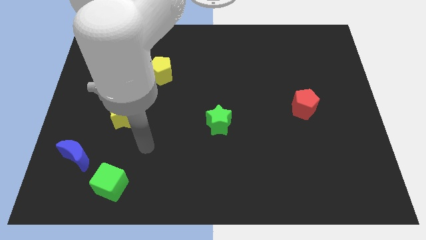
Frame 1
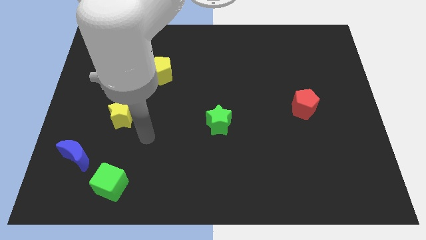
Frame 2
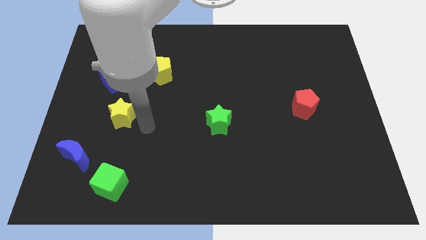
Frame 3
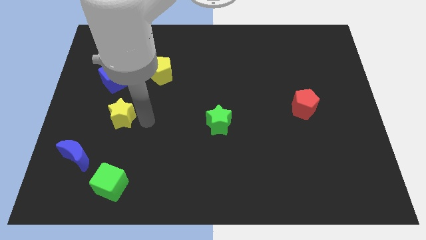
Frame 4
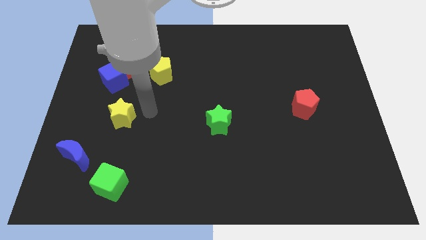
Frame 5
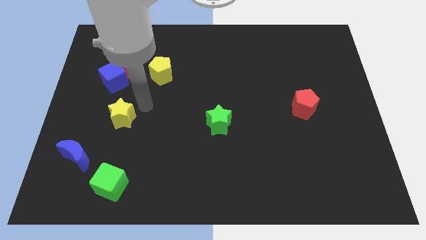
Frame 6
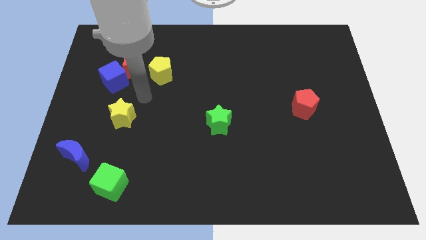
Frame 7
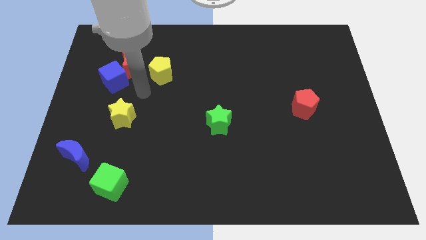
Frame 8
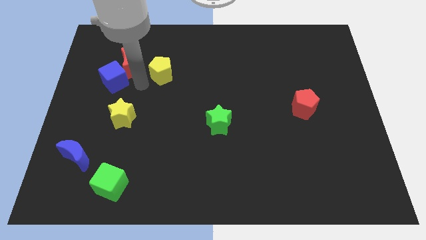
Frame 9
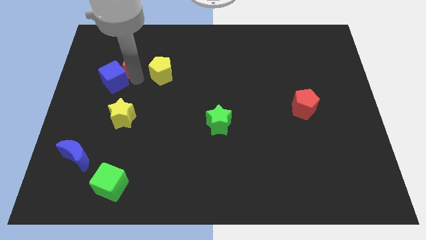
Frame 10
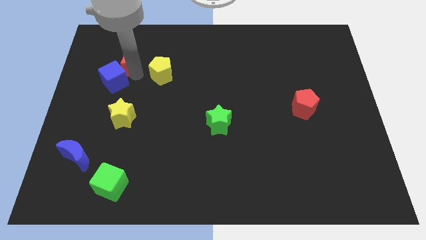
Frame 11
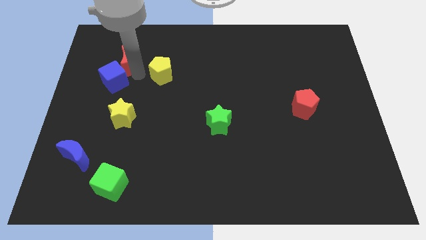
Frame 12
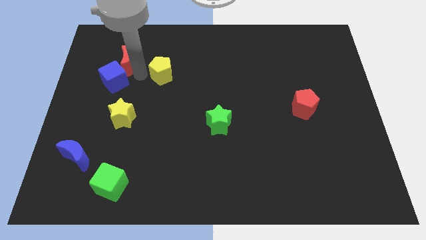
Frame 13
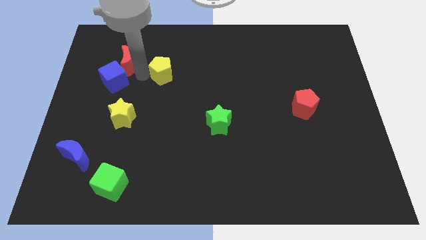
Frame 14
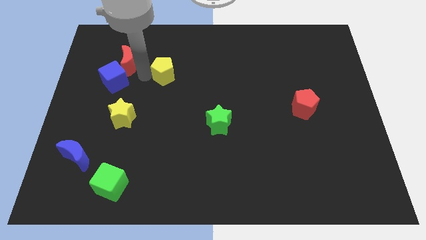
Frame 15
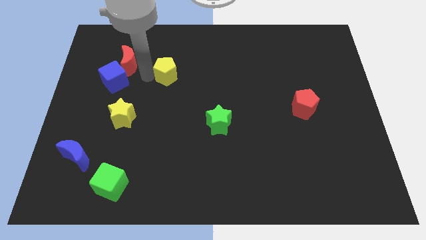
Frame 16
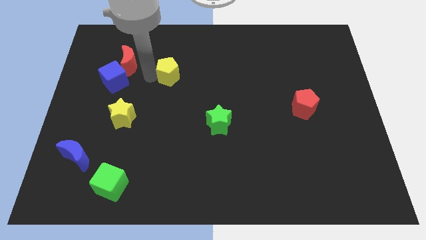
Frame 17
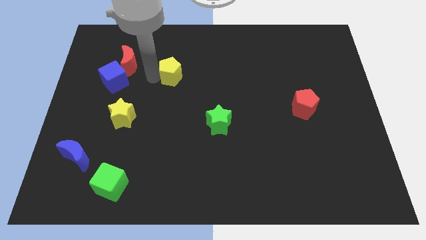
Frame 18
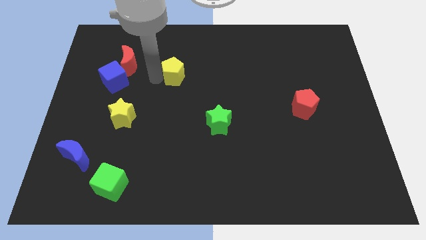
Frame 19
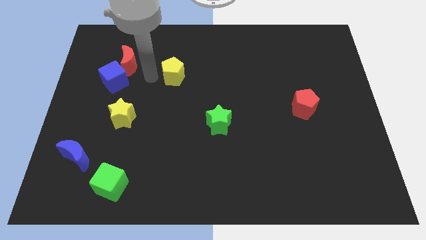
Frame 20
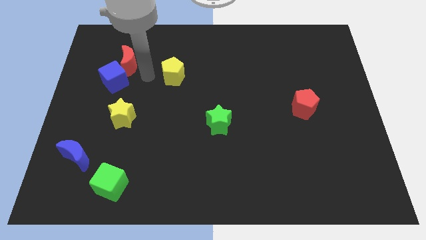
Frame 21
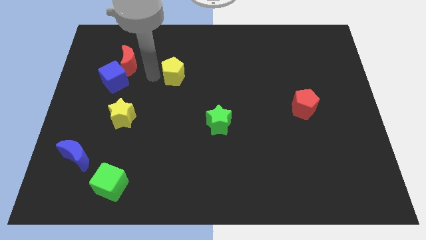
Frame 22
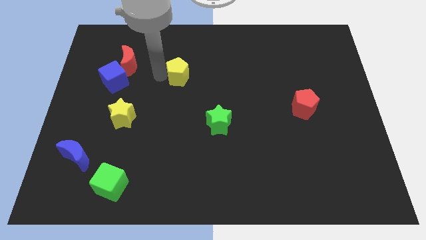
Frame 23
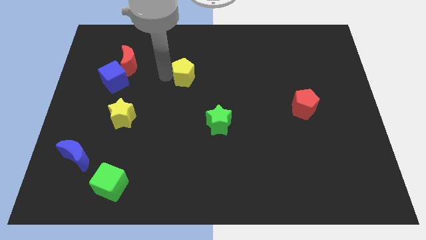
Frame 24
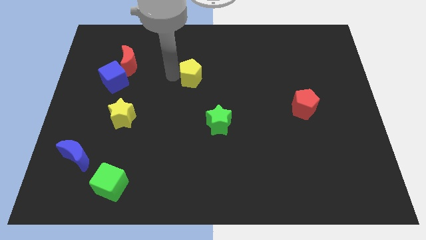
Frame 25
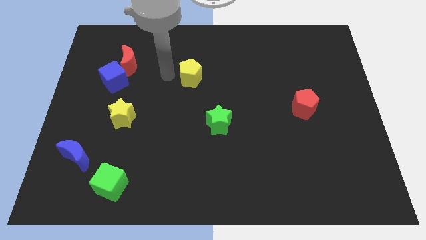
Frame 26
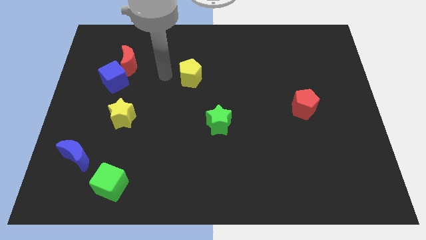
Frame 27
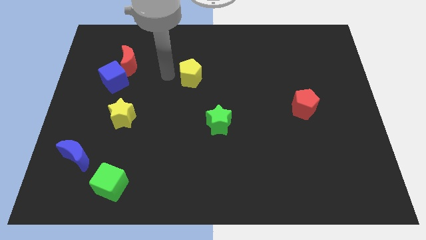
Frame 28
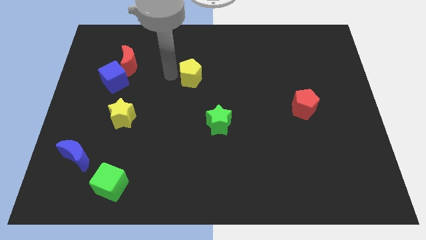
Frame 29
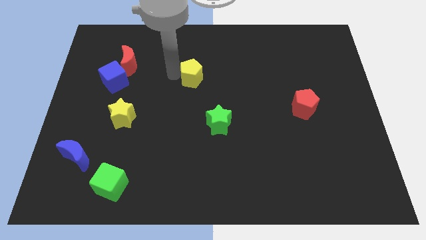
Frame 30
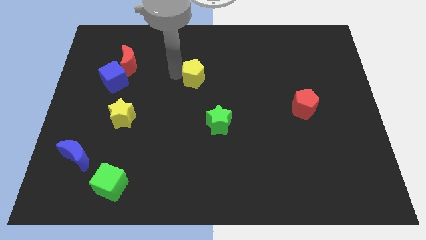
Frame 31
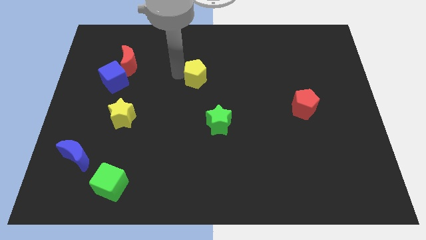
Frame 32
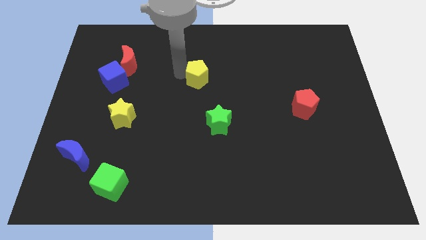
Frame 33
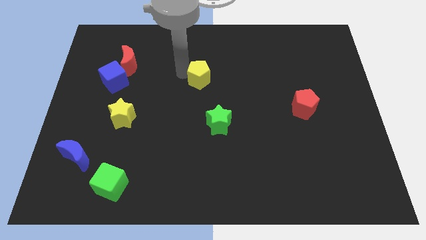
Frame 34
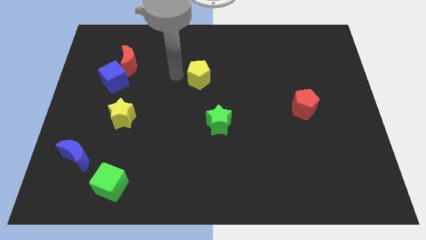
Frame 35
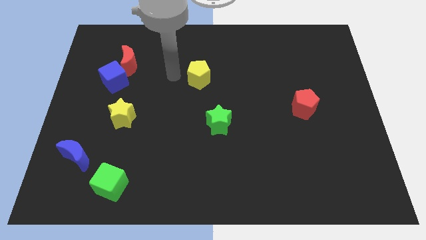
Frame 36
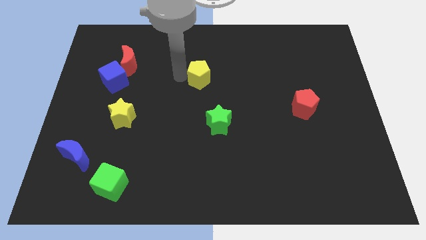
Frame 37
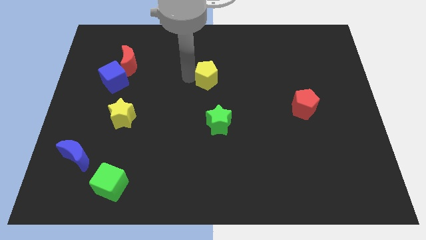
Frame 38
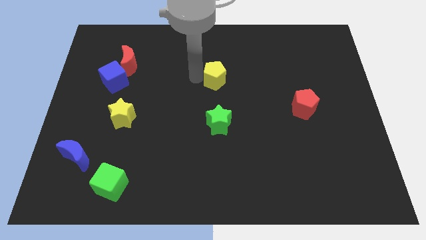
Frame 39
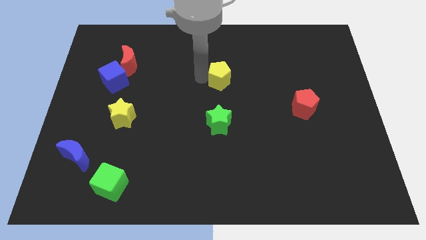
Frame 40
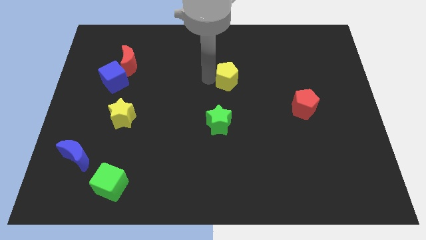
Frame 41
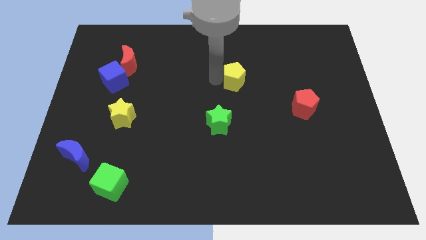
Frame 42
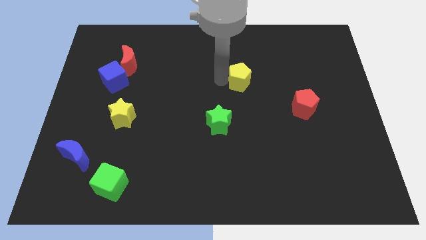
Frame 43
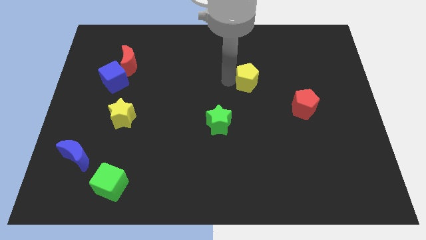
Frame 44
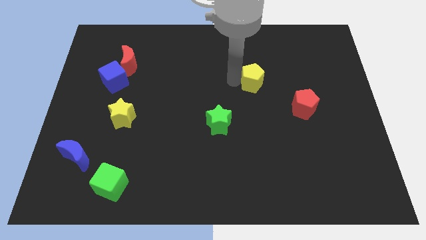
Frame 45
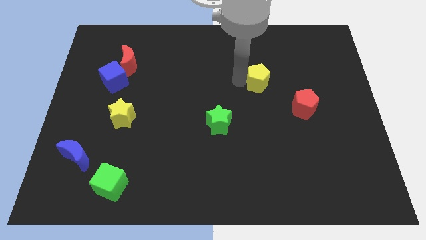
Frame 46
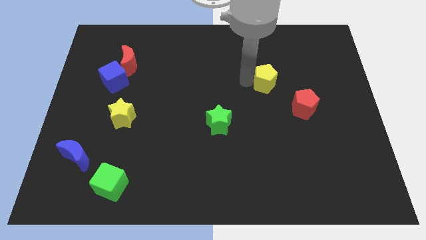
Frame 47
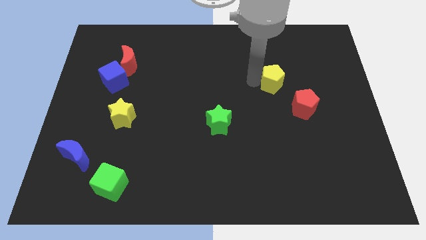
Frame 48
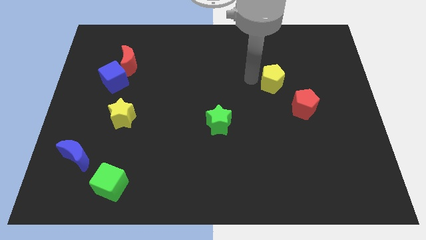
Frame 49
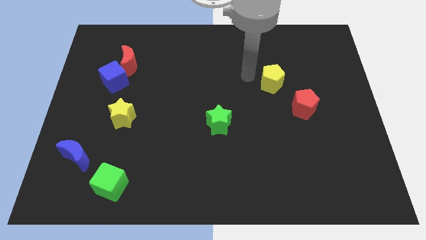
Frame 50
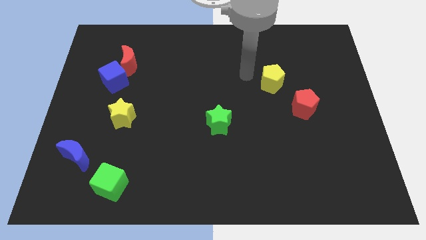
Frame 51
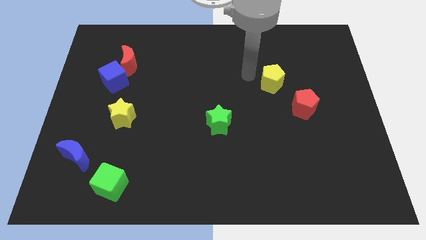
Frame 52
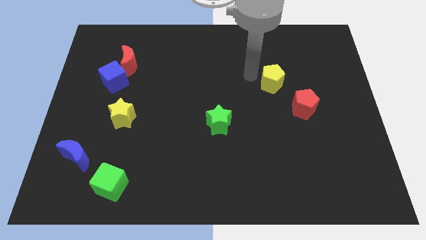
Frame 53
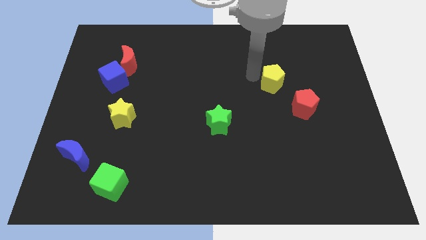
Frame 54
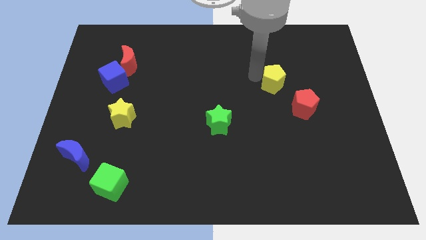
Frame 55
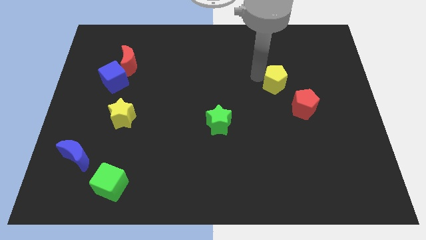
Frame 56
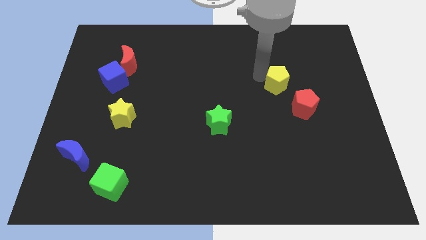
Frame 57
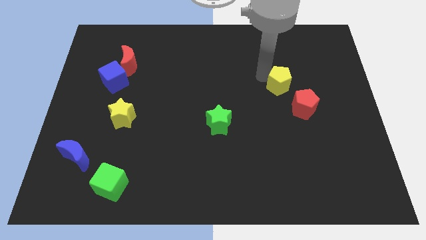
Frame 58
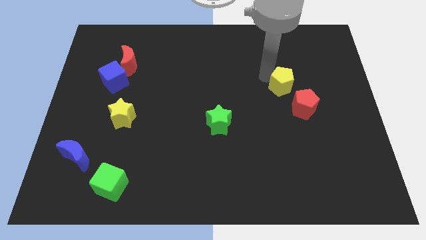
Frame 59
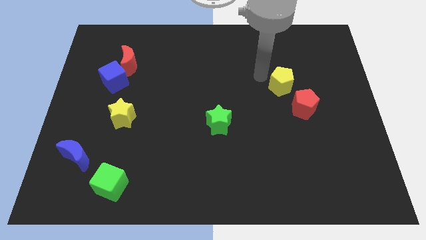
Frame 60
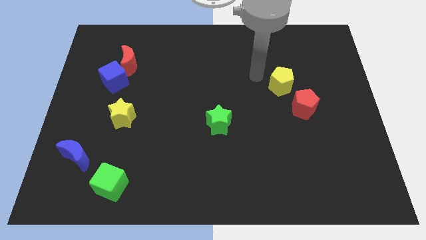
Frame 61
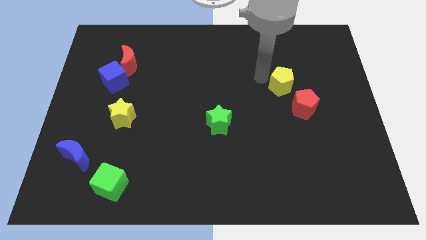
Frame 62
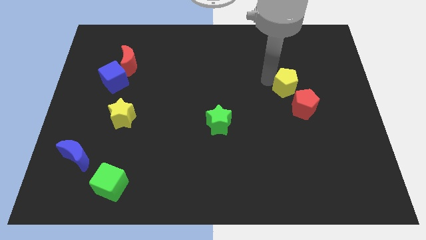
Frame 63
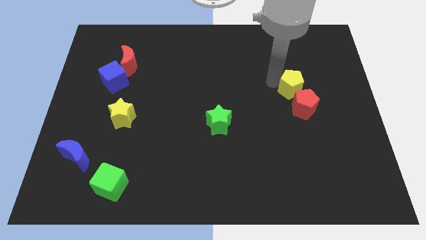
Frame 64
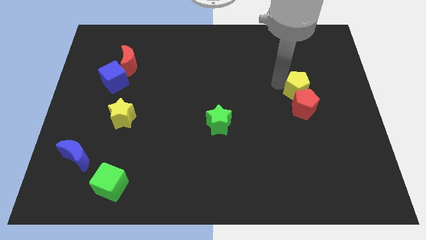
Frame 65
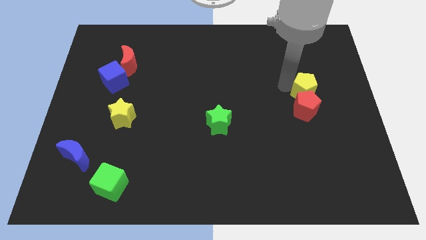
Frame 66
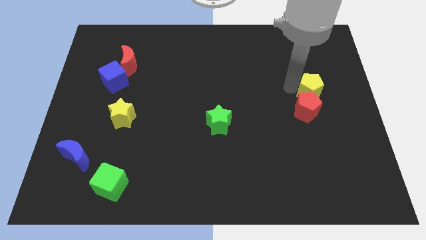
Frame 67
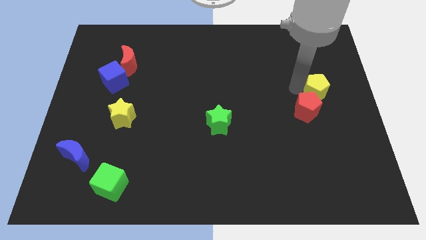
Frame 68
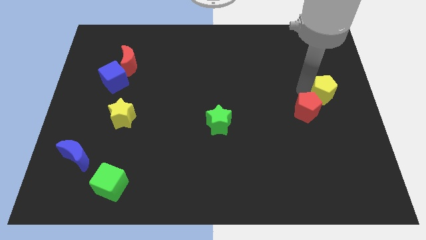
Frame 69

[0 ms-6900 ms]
slide the yellow pentagon to the right side of the board
